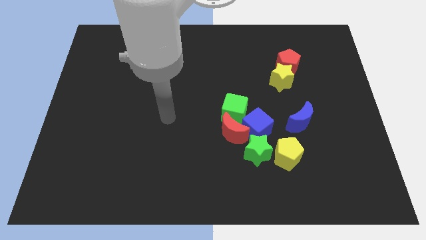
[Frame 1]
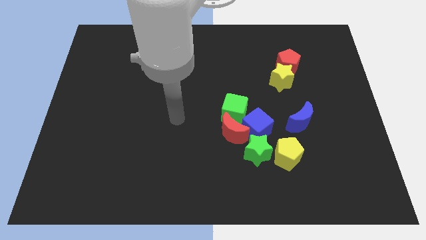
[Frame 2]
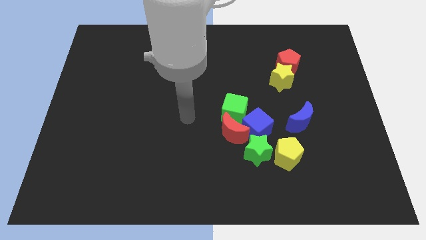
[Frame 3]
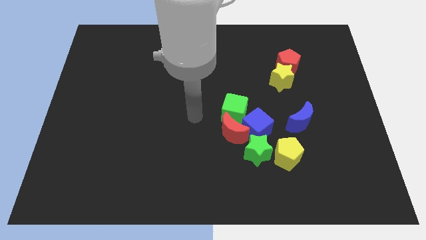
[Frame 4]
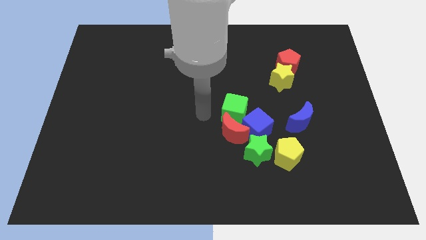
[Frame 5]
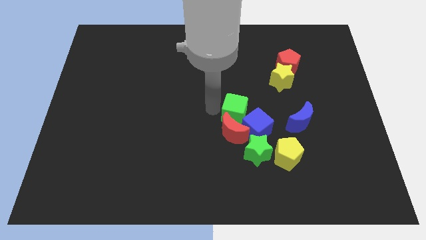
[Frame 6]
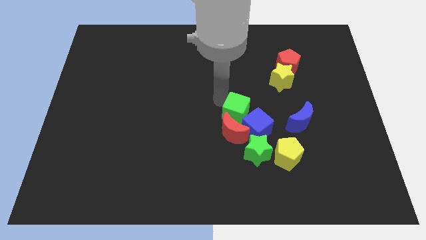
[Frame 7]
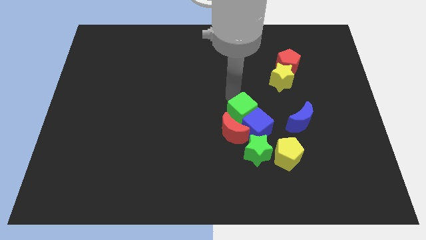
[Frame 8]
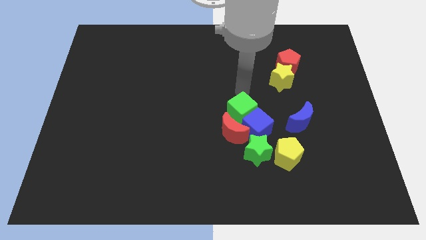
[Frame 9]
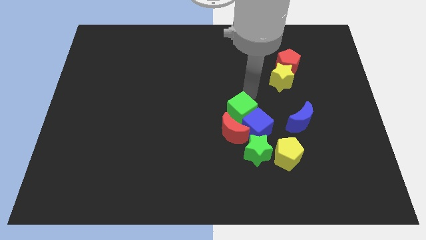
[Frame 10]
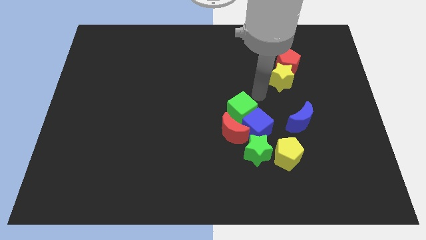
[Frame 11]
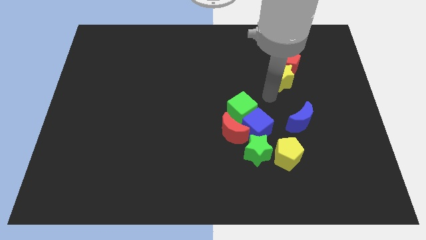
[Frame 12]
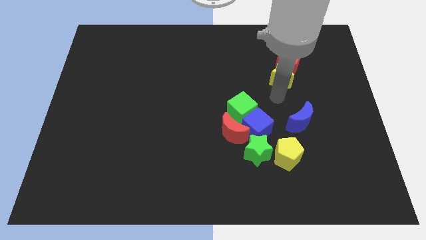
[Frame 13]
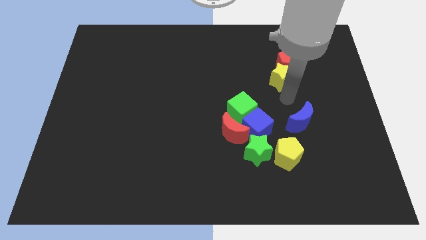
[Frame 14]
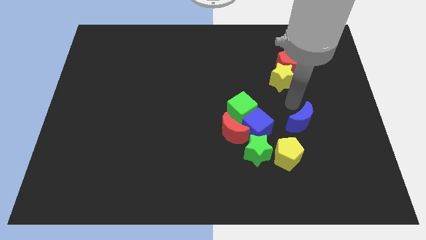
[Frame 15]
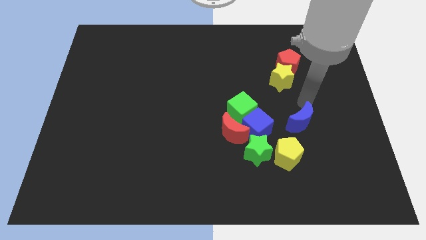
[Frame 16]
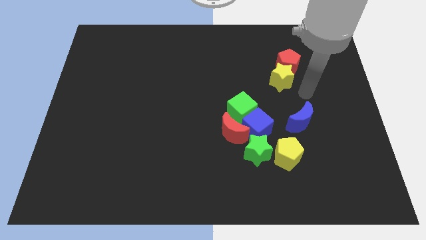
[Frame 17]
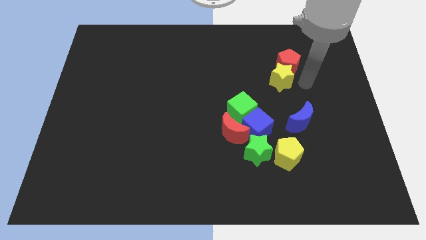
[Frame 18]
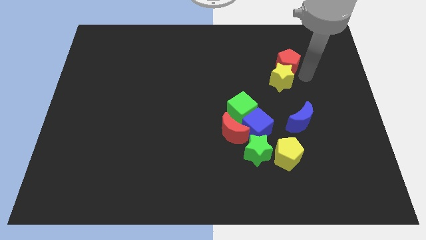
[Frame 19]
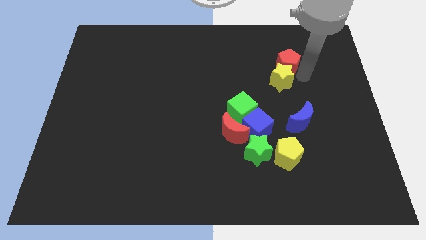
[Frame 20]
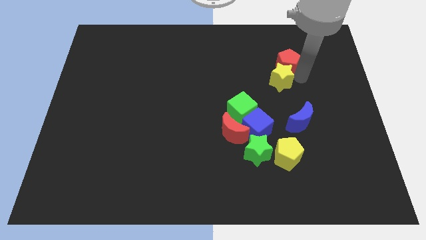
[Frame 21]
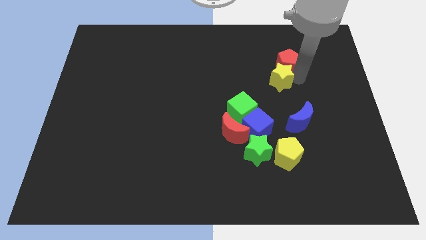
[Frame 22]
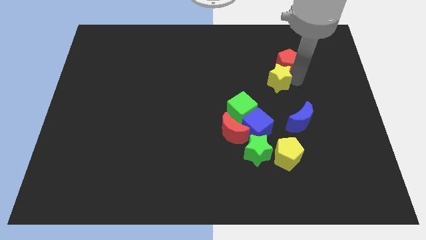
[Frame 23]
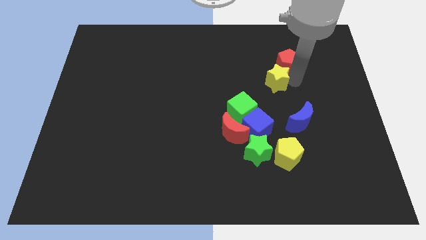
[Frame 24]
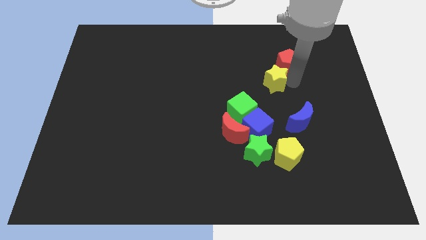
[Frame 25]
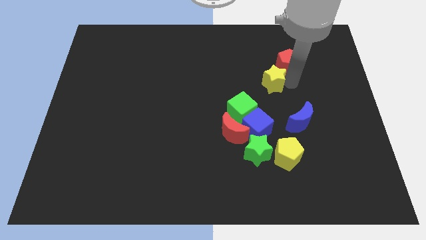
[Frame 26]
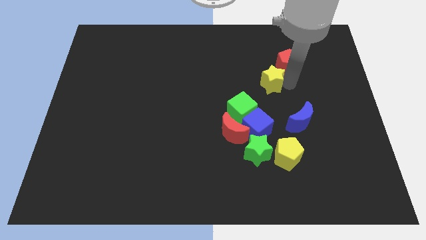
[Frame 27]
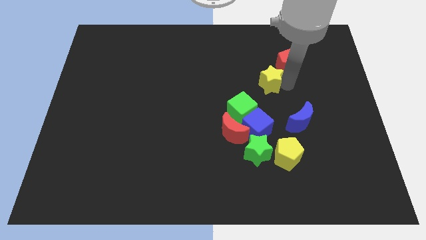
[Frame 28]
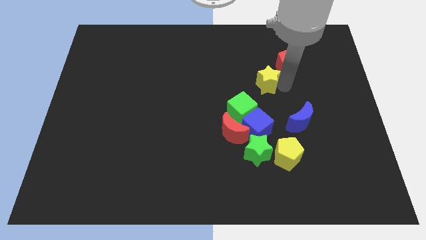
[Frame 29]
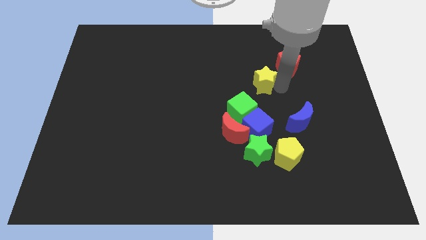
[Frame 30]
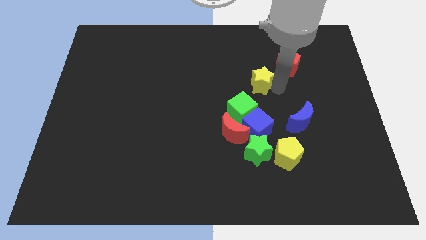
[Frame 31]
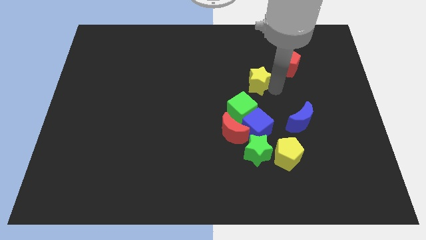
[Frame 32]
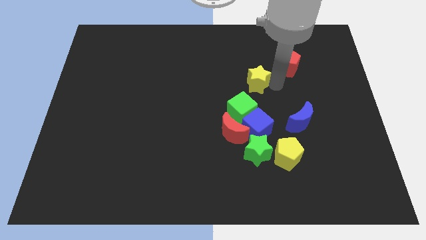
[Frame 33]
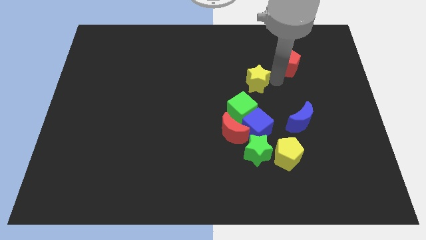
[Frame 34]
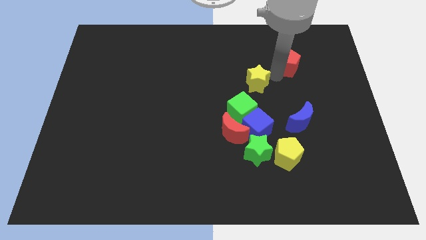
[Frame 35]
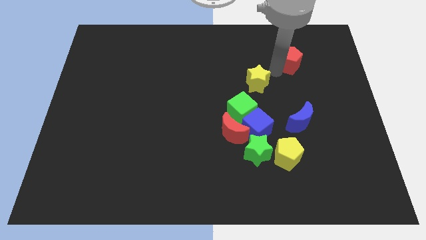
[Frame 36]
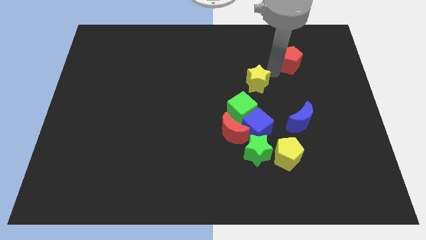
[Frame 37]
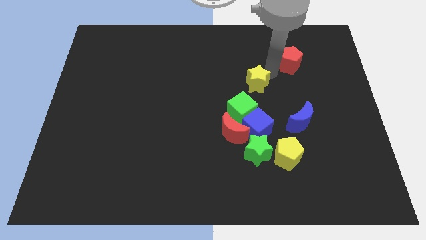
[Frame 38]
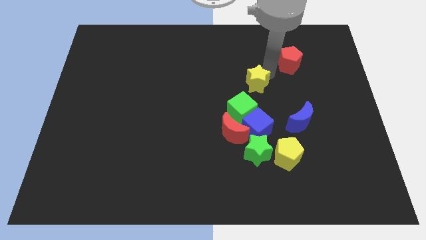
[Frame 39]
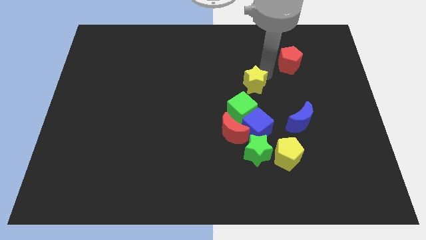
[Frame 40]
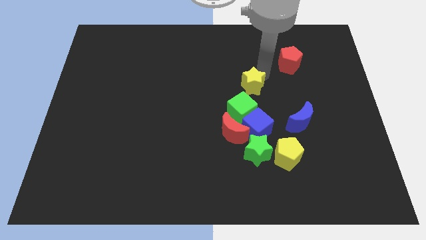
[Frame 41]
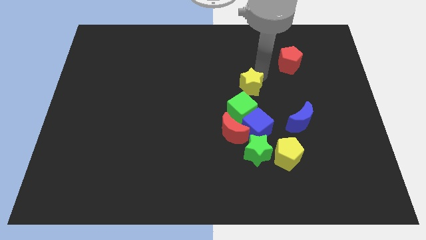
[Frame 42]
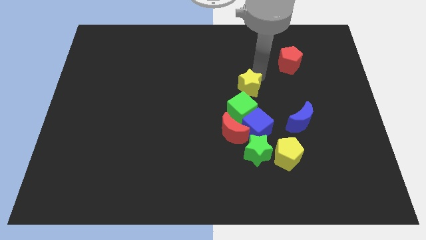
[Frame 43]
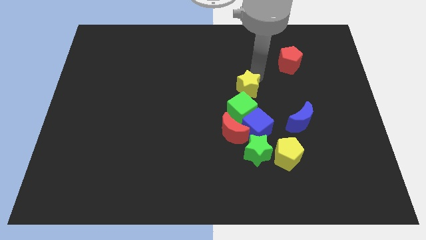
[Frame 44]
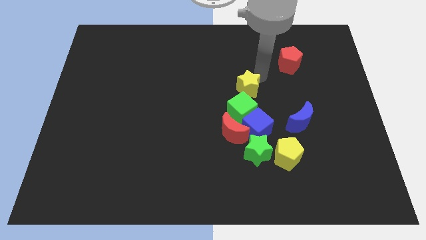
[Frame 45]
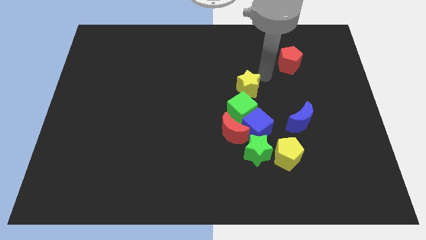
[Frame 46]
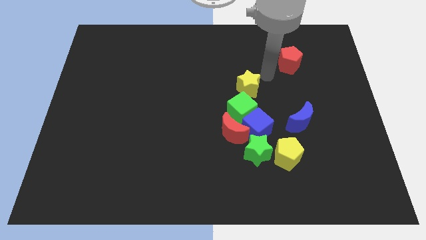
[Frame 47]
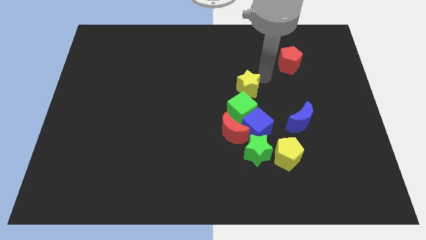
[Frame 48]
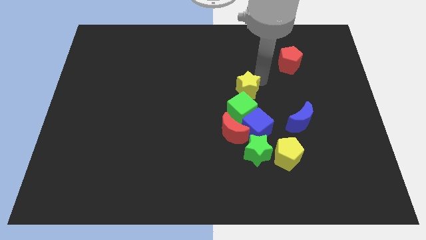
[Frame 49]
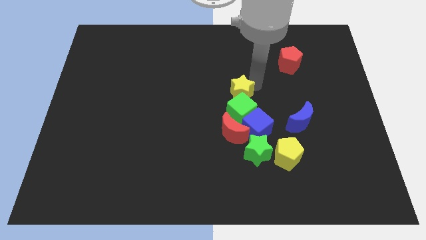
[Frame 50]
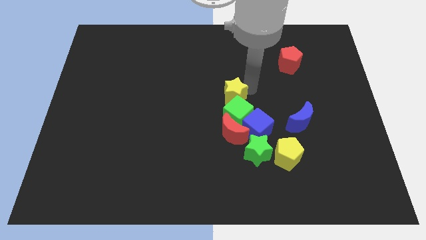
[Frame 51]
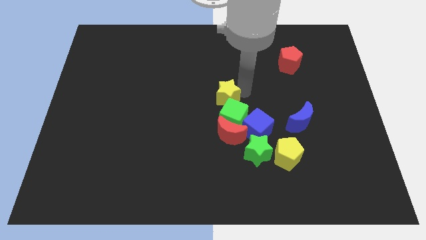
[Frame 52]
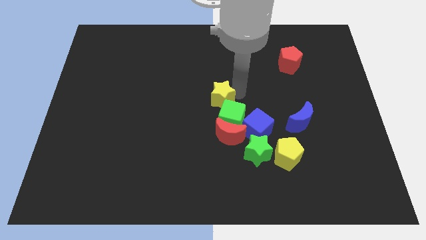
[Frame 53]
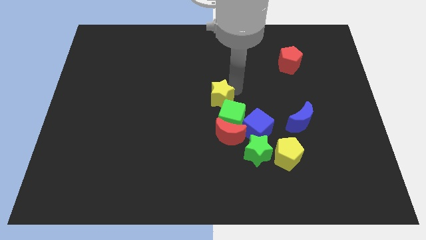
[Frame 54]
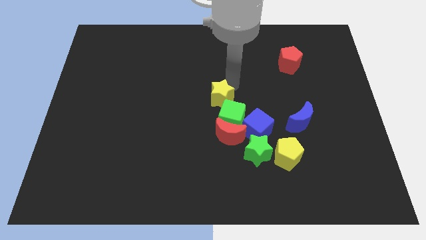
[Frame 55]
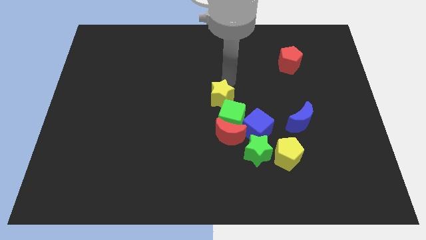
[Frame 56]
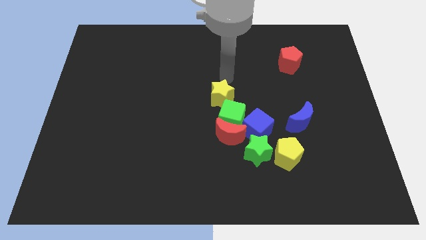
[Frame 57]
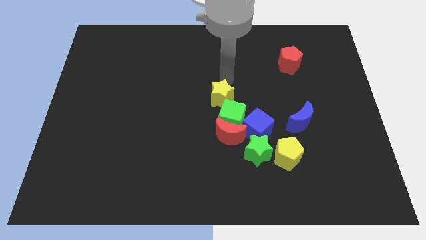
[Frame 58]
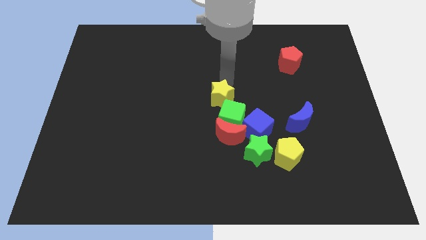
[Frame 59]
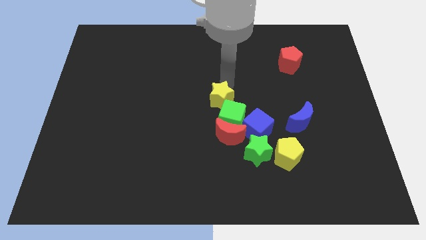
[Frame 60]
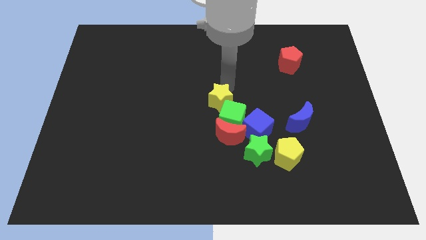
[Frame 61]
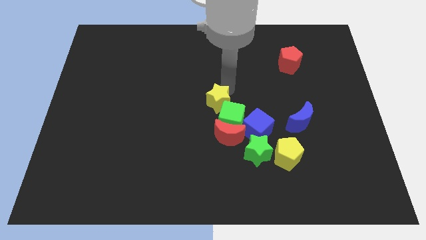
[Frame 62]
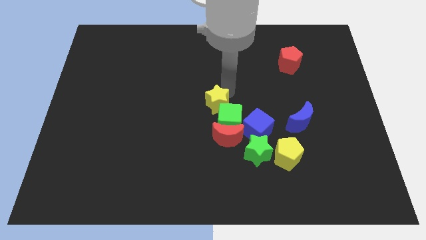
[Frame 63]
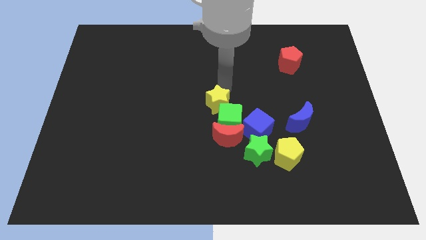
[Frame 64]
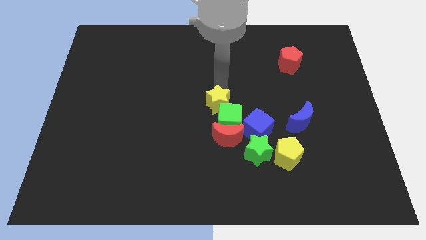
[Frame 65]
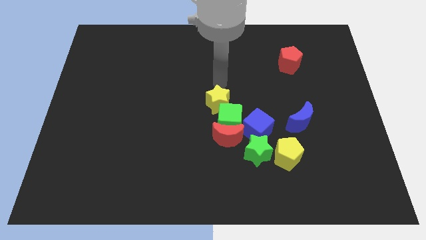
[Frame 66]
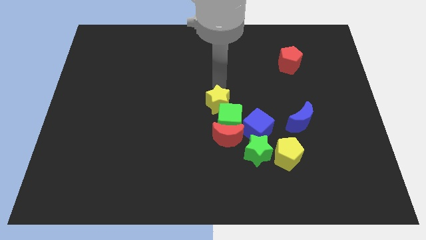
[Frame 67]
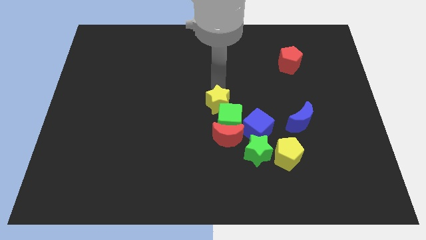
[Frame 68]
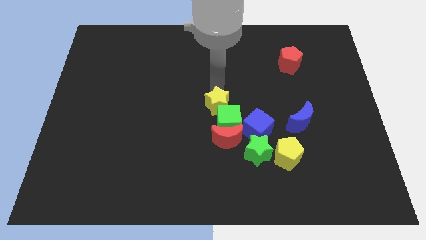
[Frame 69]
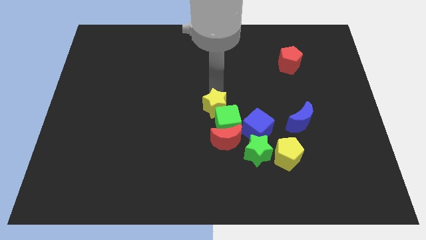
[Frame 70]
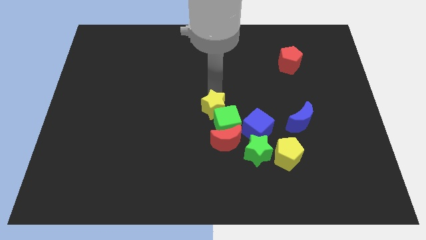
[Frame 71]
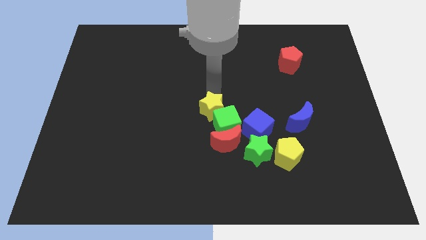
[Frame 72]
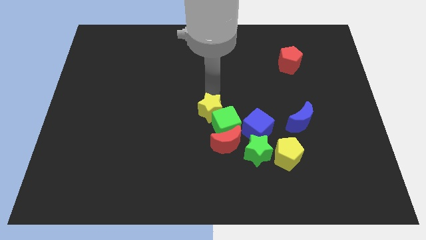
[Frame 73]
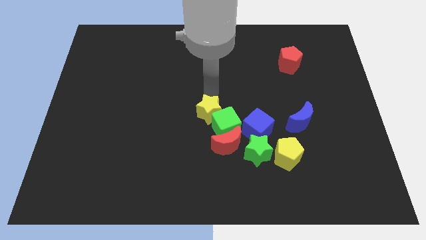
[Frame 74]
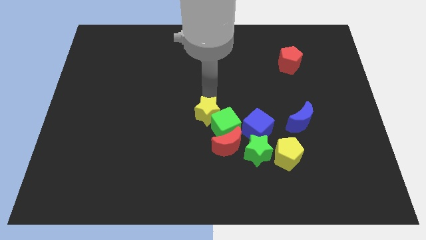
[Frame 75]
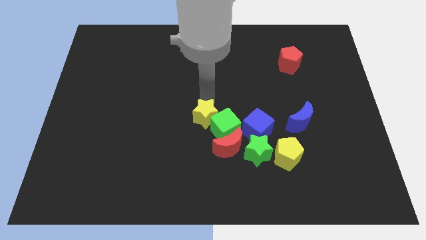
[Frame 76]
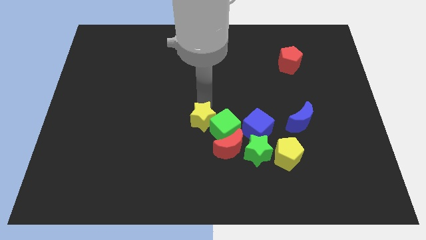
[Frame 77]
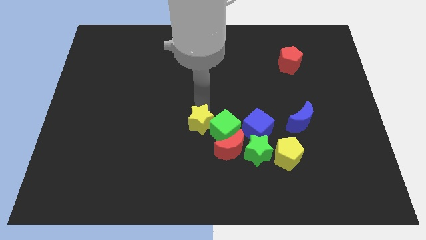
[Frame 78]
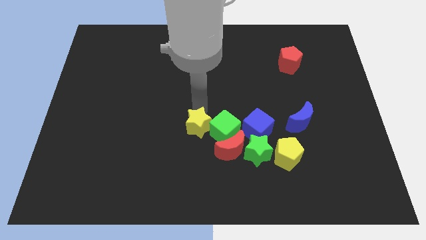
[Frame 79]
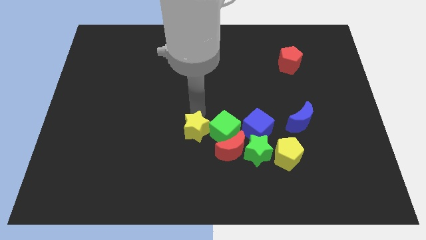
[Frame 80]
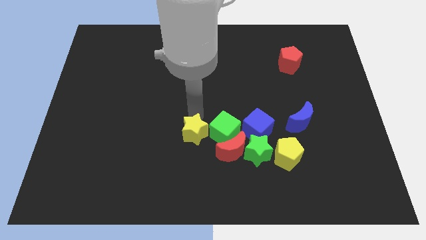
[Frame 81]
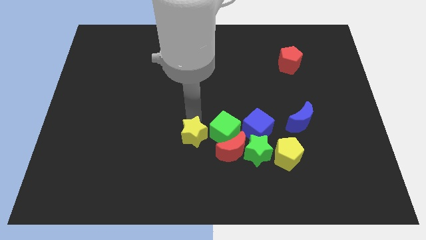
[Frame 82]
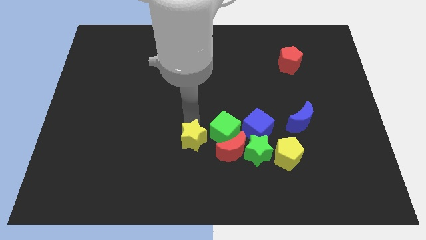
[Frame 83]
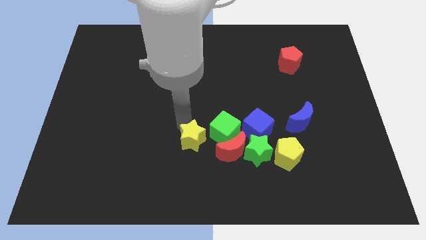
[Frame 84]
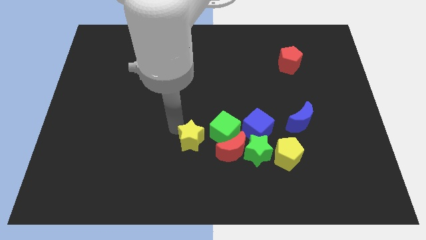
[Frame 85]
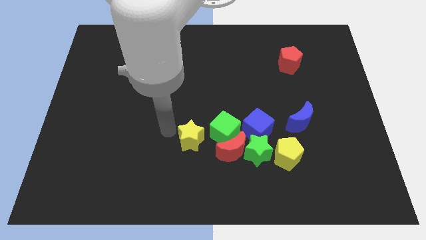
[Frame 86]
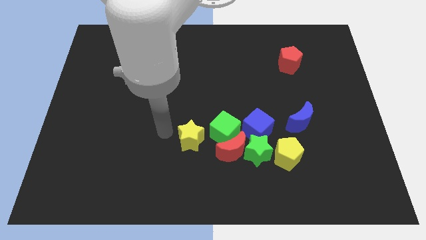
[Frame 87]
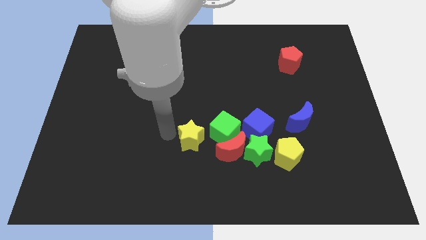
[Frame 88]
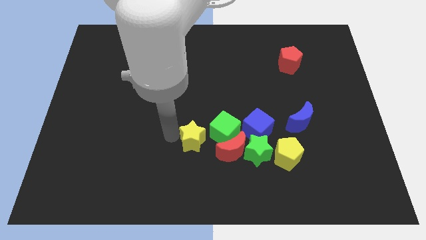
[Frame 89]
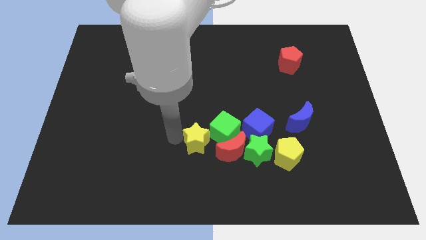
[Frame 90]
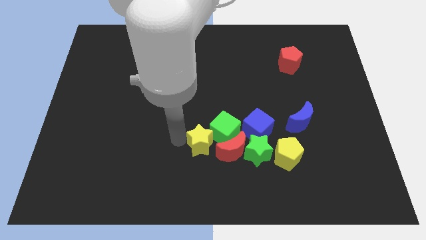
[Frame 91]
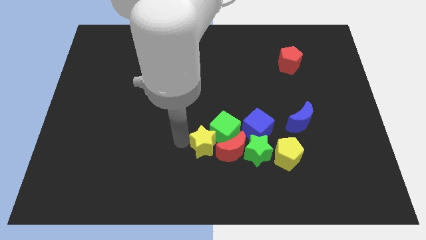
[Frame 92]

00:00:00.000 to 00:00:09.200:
slide the yellow star next to the red moon
